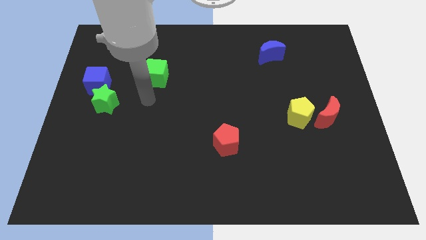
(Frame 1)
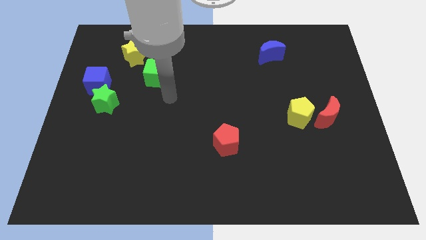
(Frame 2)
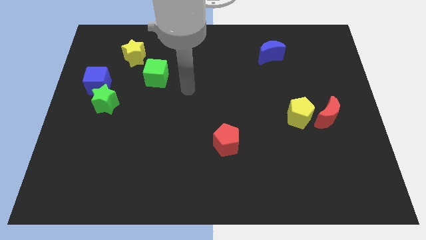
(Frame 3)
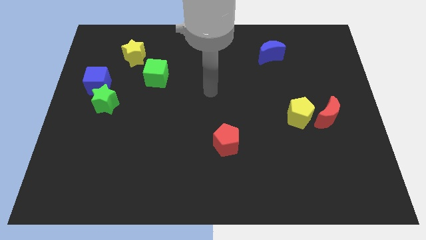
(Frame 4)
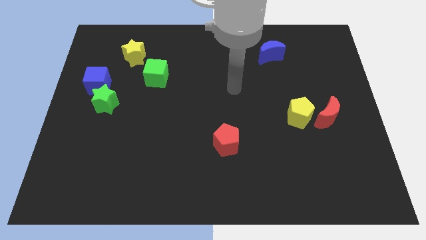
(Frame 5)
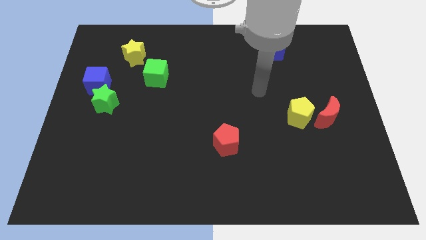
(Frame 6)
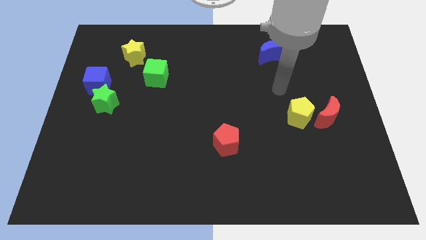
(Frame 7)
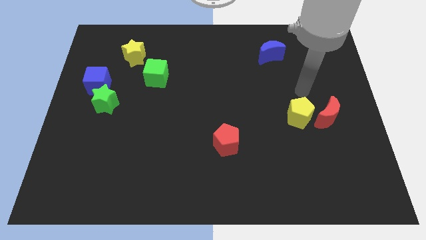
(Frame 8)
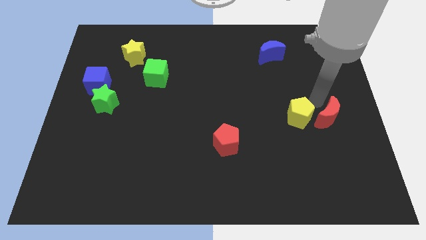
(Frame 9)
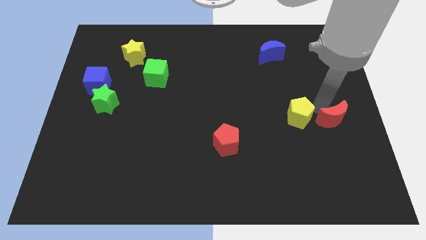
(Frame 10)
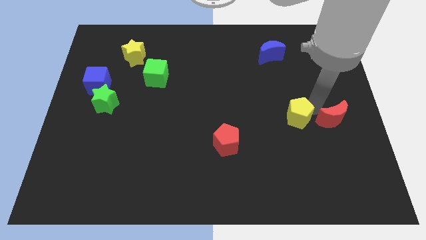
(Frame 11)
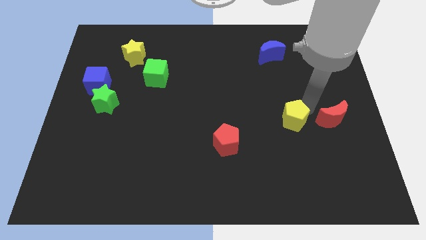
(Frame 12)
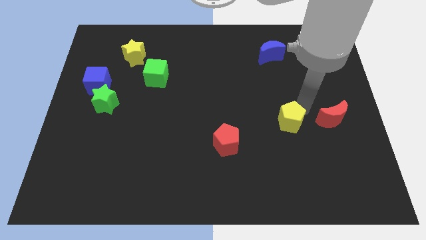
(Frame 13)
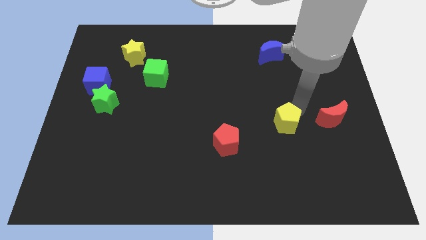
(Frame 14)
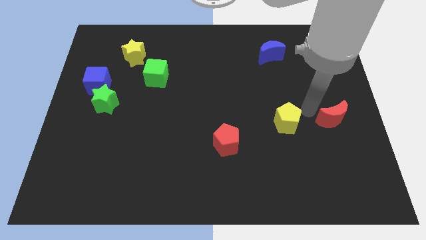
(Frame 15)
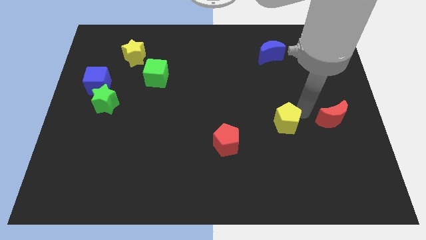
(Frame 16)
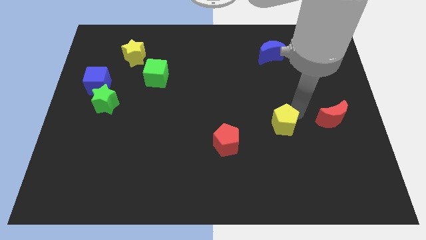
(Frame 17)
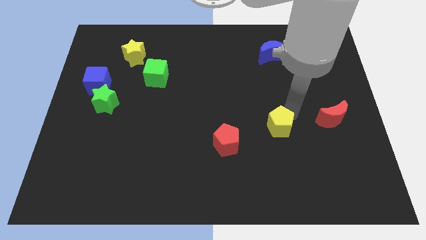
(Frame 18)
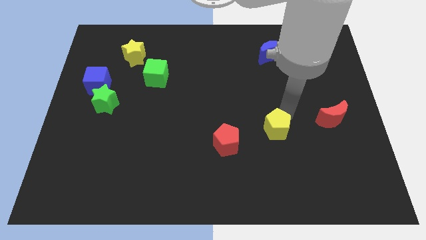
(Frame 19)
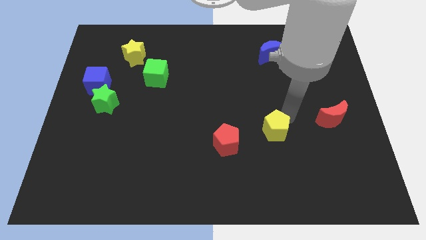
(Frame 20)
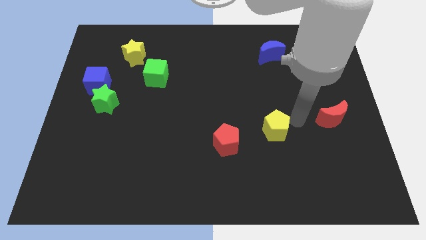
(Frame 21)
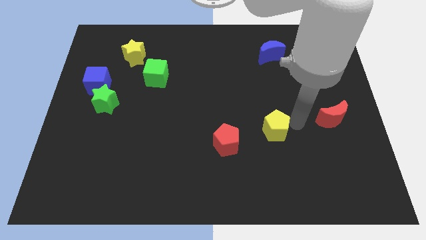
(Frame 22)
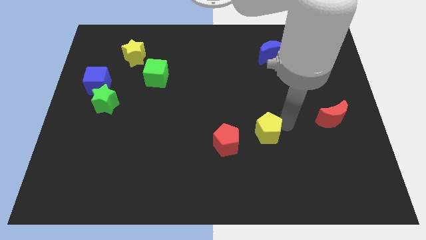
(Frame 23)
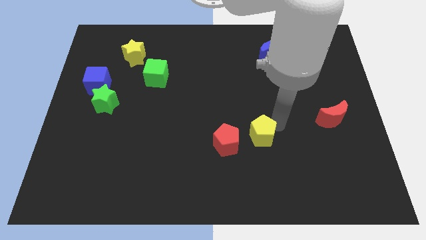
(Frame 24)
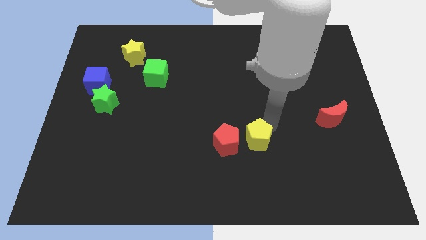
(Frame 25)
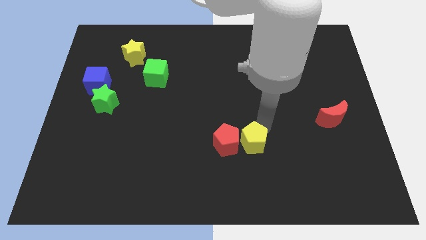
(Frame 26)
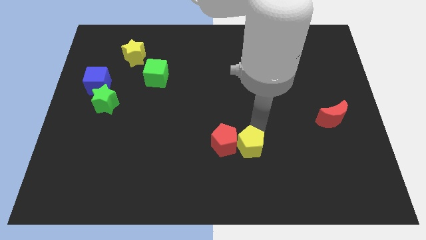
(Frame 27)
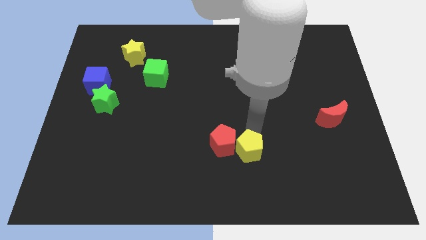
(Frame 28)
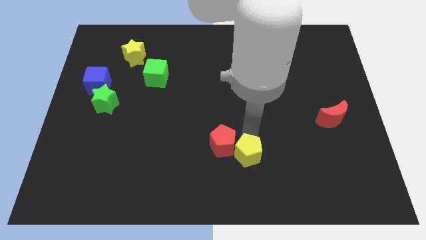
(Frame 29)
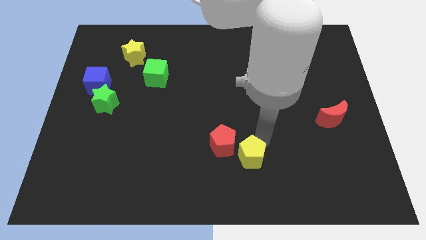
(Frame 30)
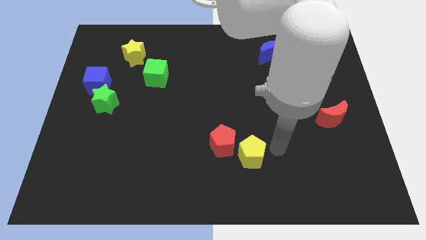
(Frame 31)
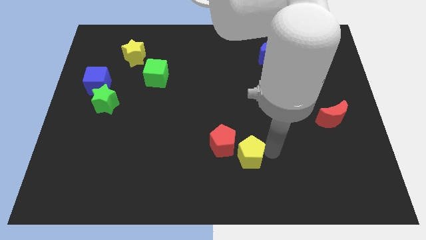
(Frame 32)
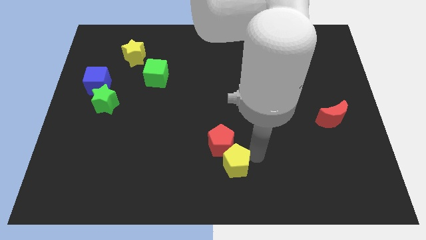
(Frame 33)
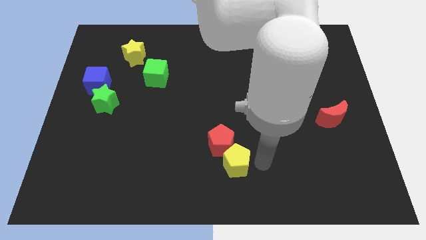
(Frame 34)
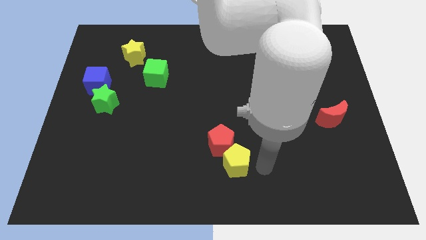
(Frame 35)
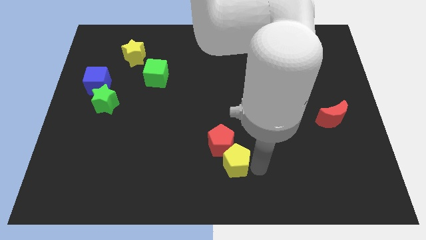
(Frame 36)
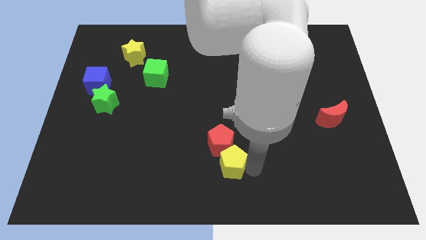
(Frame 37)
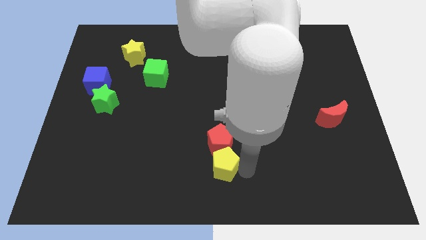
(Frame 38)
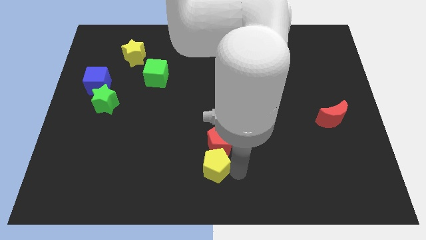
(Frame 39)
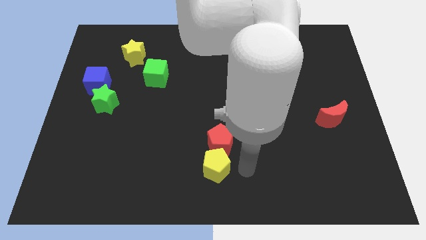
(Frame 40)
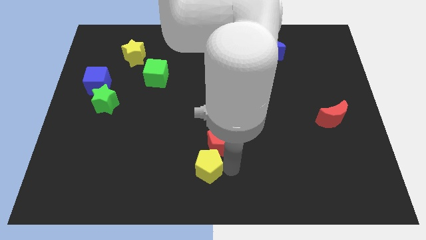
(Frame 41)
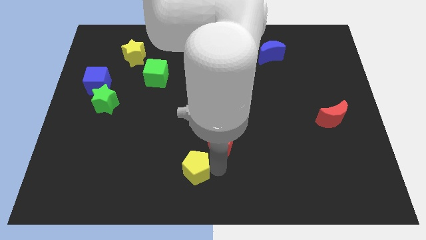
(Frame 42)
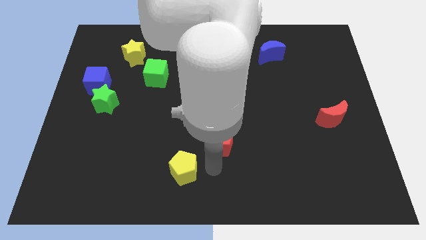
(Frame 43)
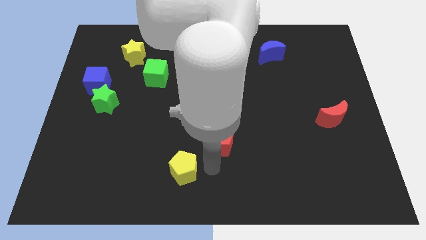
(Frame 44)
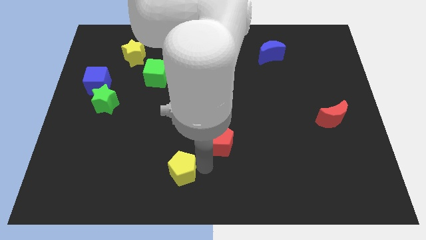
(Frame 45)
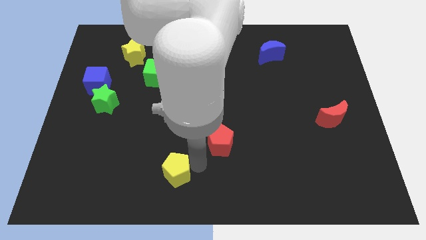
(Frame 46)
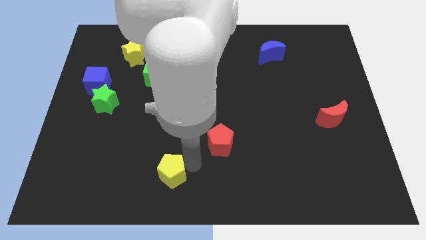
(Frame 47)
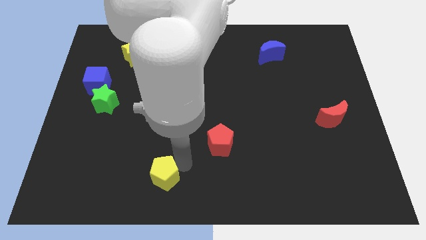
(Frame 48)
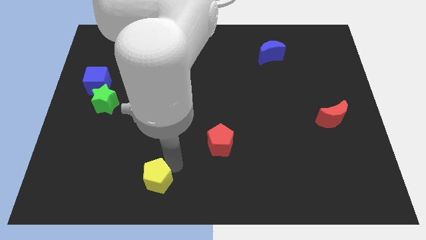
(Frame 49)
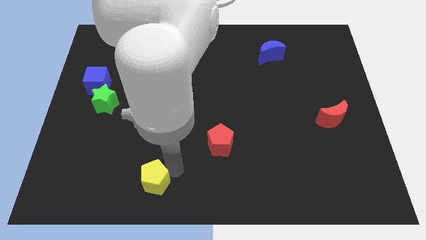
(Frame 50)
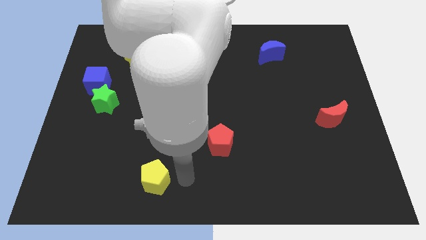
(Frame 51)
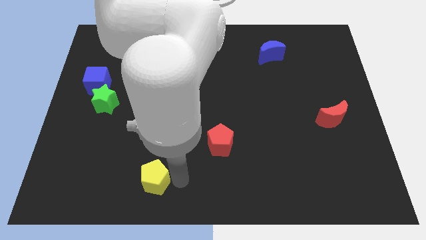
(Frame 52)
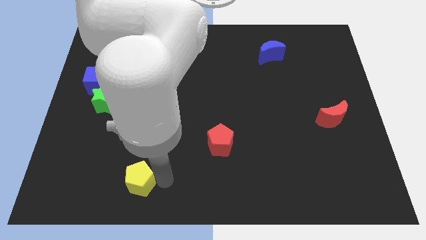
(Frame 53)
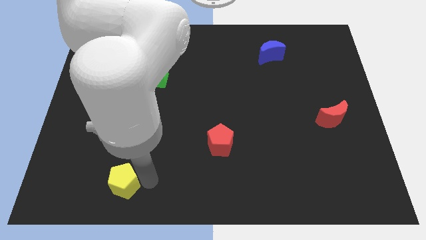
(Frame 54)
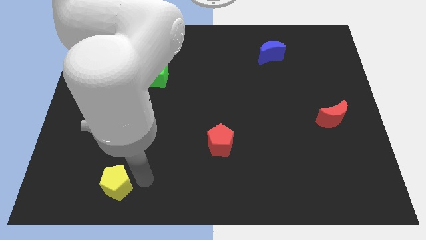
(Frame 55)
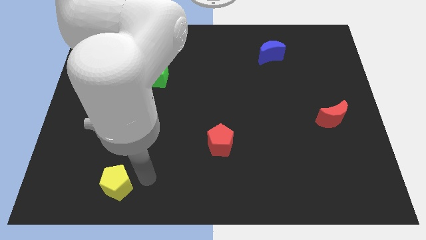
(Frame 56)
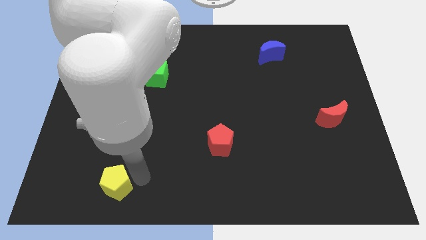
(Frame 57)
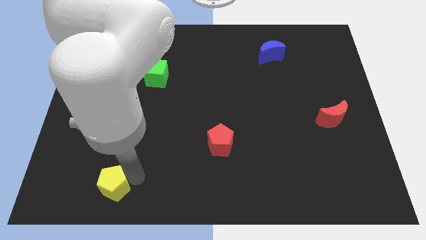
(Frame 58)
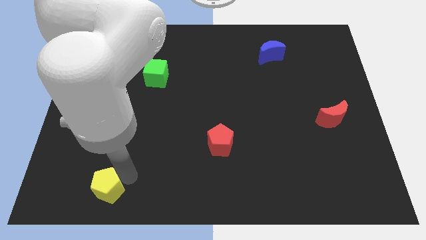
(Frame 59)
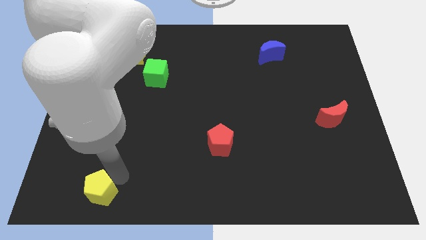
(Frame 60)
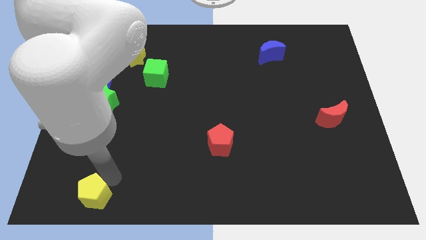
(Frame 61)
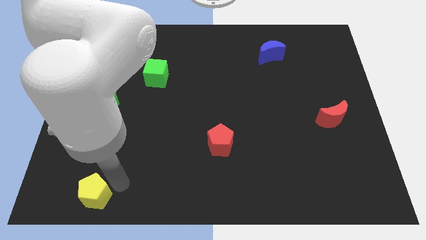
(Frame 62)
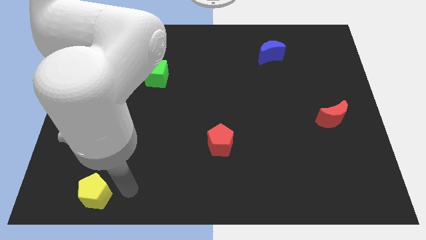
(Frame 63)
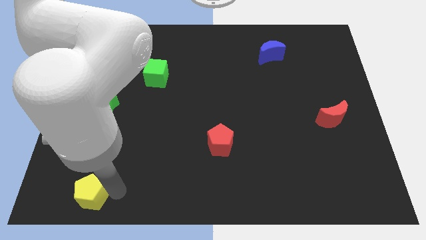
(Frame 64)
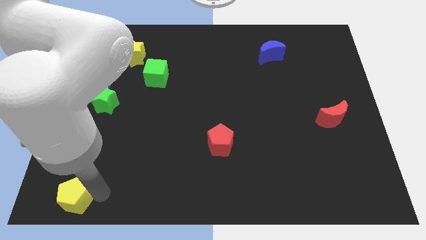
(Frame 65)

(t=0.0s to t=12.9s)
put the yellow pentagon to the bottom left
